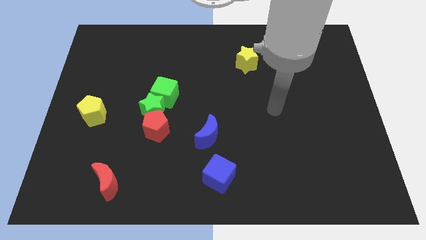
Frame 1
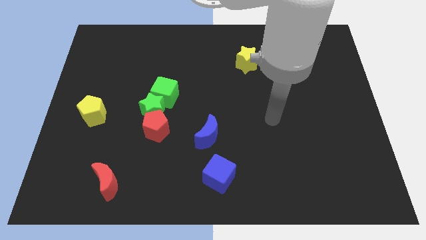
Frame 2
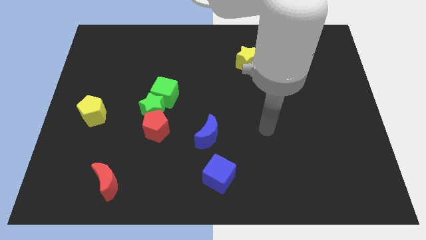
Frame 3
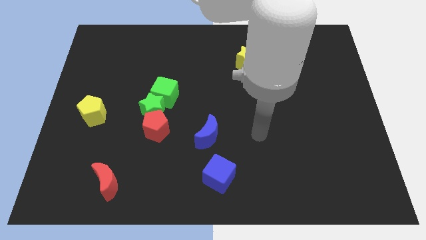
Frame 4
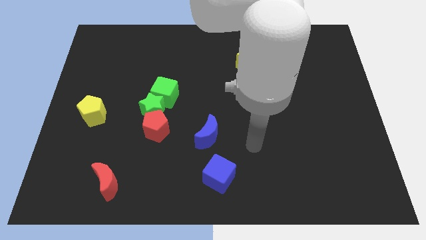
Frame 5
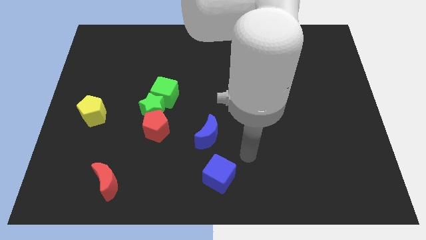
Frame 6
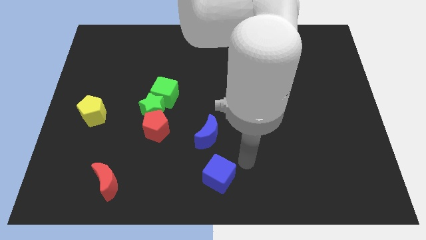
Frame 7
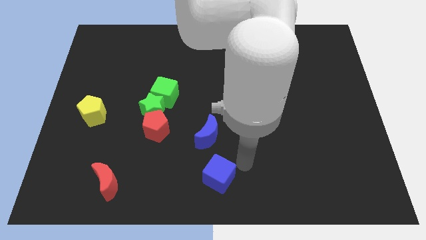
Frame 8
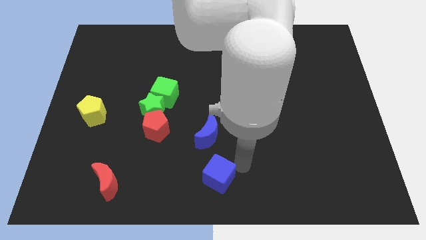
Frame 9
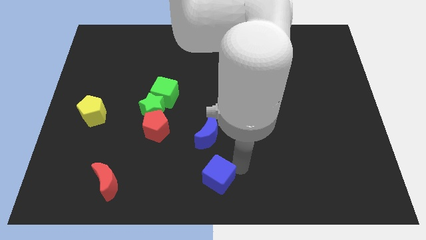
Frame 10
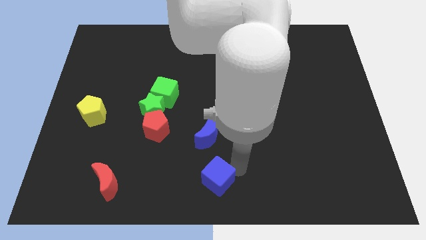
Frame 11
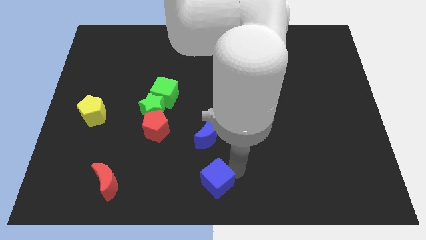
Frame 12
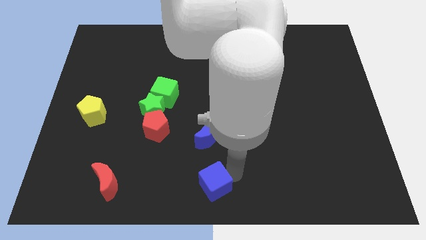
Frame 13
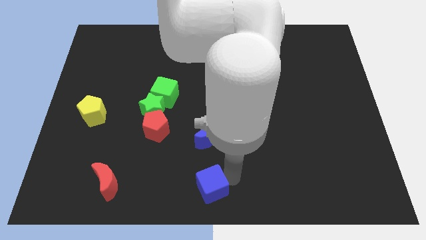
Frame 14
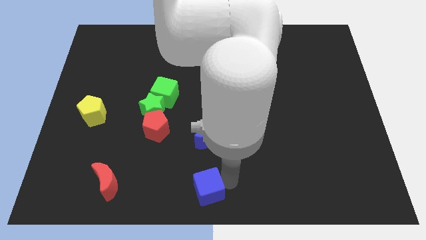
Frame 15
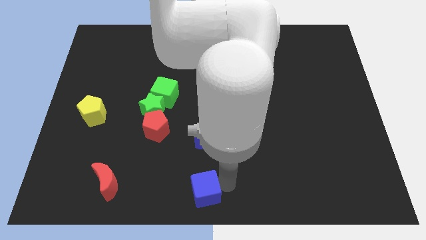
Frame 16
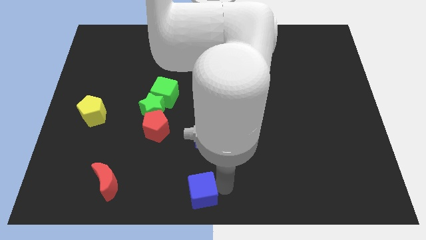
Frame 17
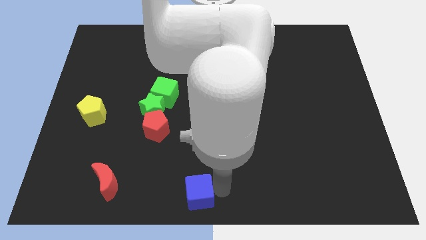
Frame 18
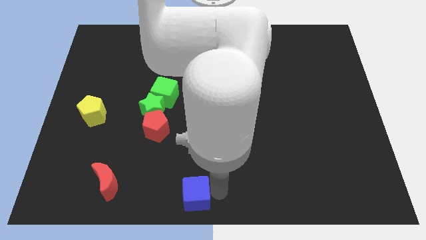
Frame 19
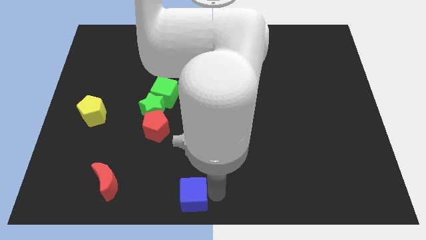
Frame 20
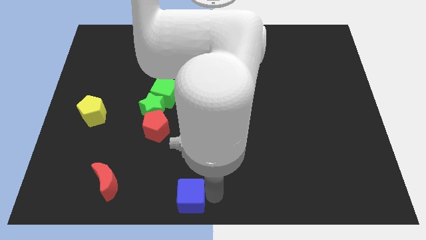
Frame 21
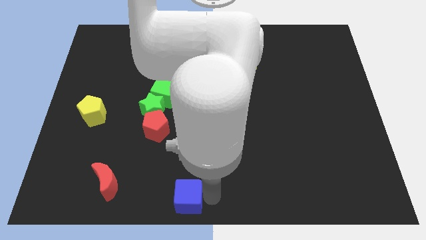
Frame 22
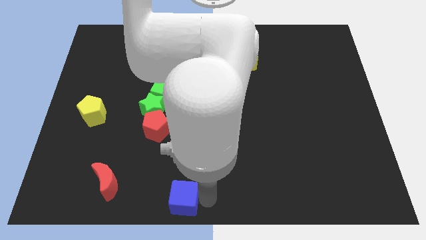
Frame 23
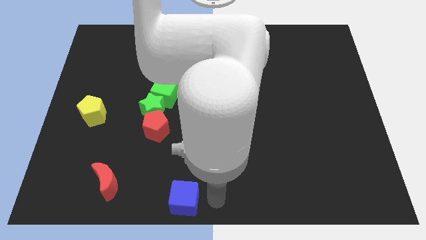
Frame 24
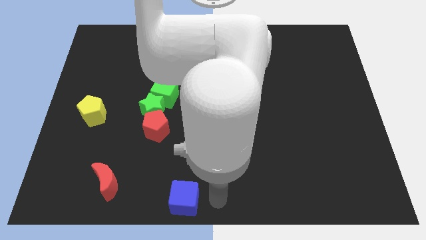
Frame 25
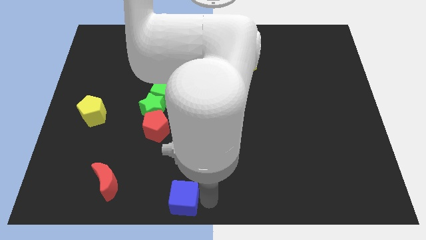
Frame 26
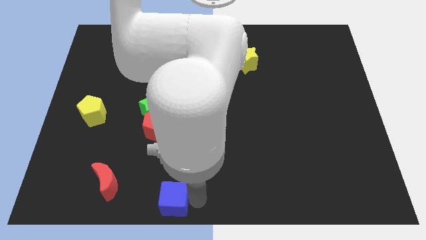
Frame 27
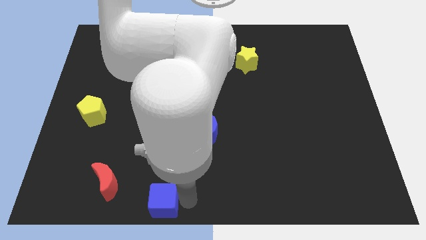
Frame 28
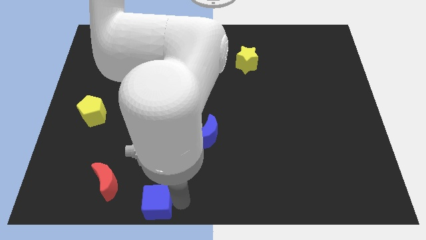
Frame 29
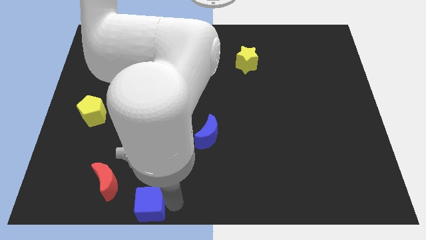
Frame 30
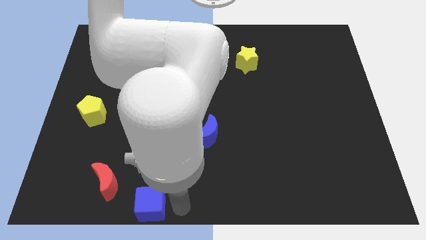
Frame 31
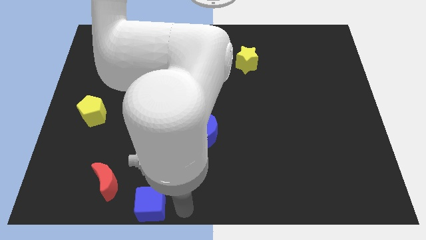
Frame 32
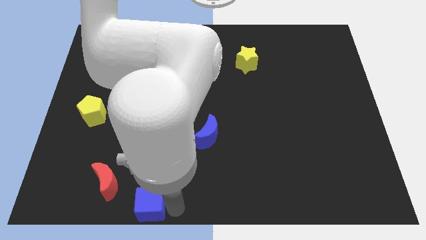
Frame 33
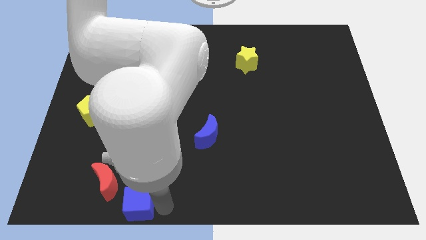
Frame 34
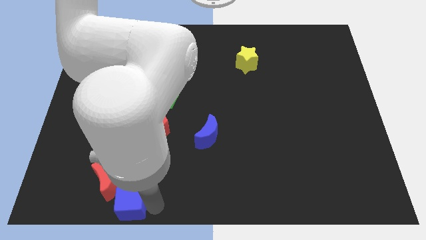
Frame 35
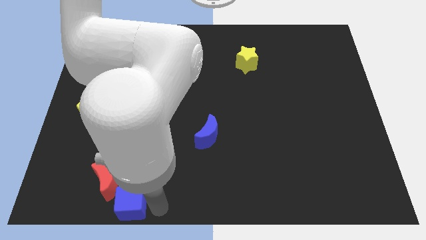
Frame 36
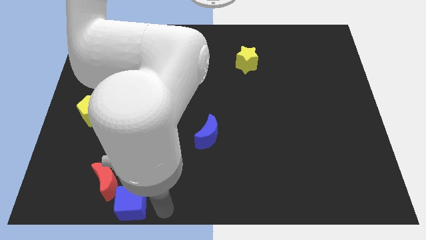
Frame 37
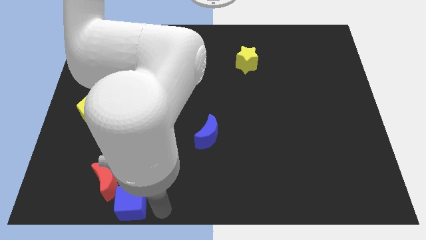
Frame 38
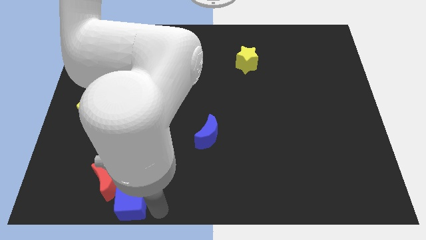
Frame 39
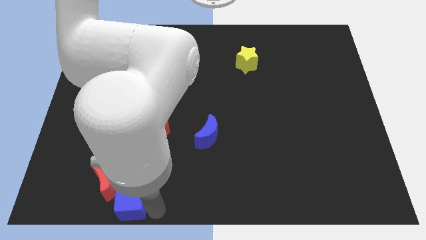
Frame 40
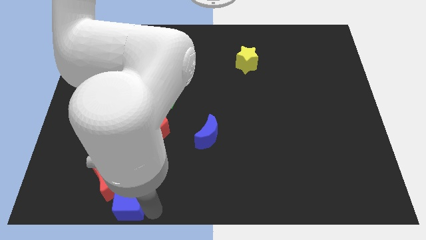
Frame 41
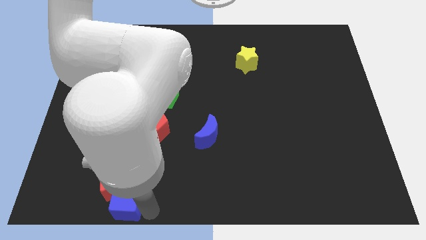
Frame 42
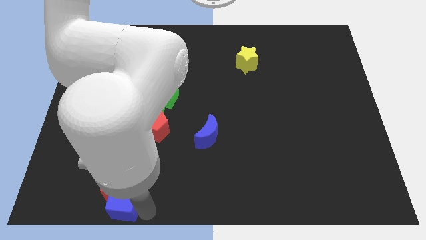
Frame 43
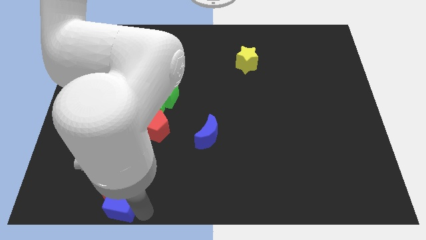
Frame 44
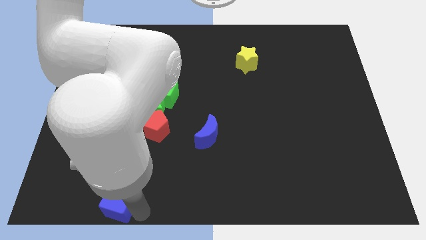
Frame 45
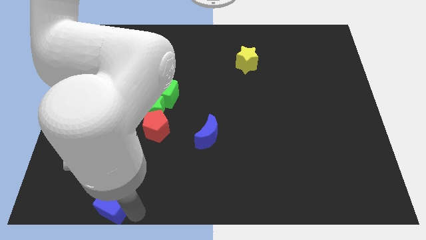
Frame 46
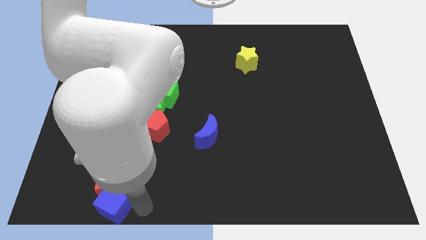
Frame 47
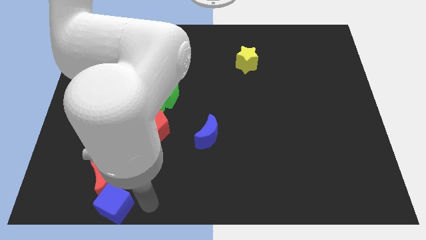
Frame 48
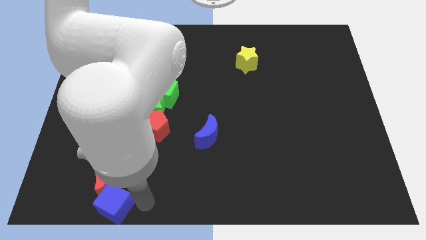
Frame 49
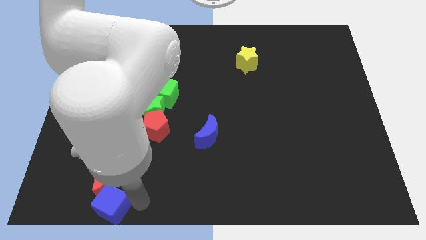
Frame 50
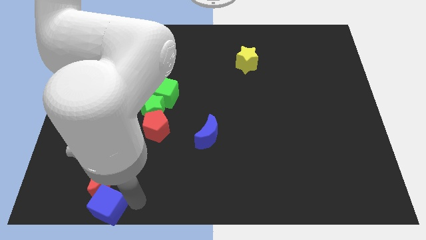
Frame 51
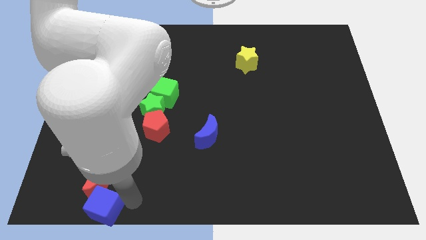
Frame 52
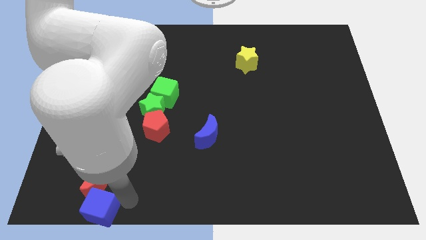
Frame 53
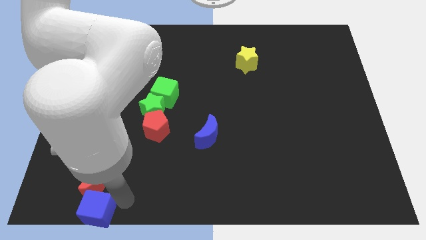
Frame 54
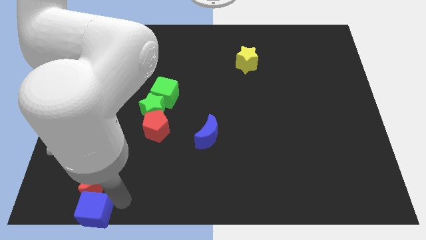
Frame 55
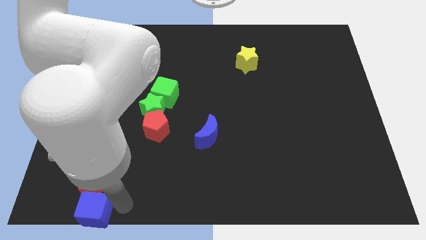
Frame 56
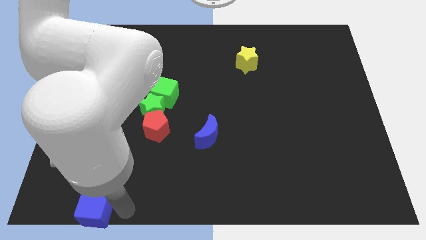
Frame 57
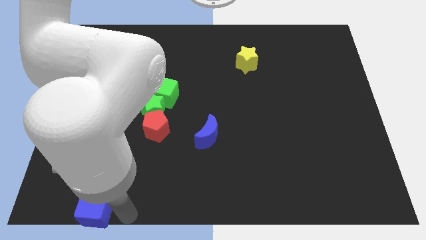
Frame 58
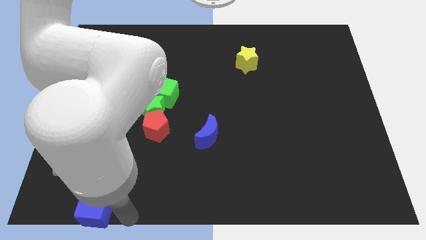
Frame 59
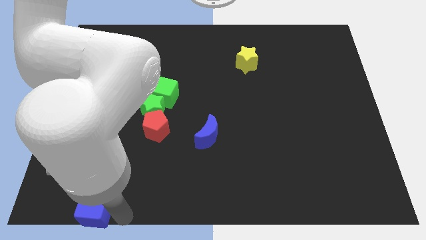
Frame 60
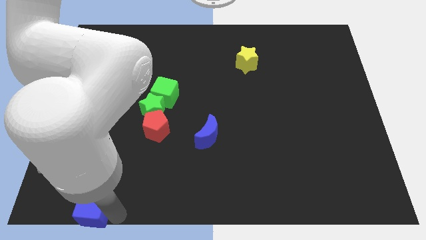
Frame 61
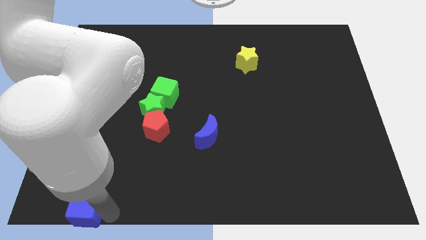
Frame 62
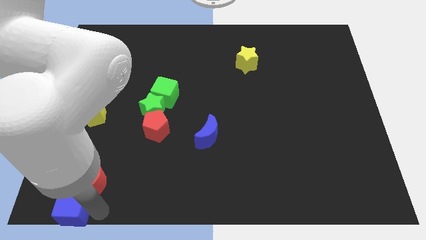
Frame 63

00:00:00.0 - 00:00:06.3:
put the blue cube to the bottom left corner
